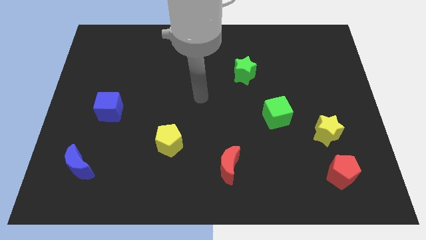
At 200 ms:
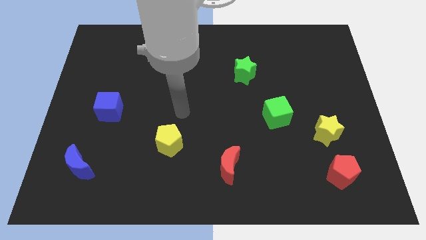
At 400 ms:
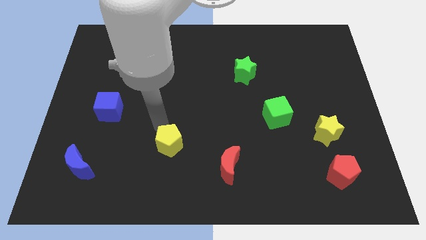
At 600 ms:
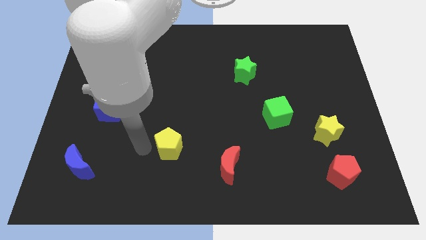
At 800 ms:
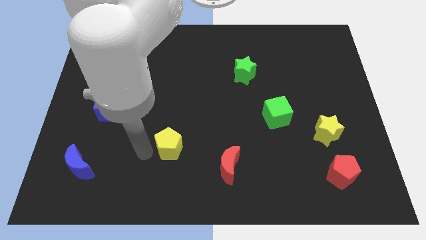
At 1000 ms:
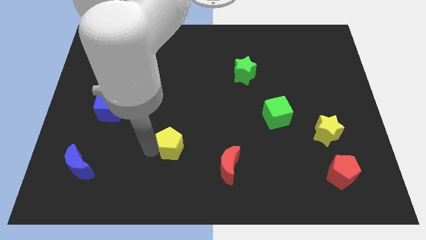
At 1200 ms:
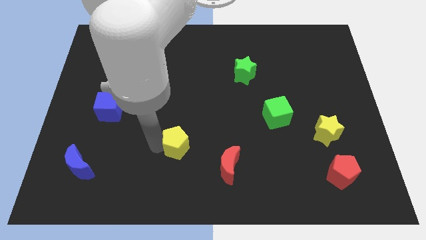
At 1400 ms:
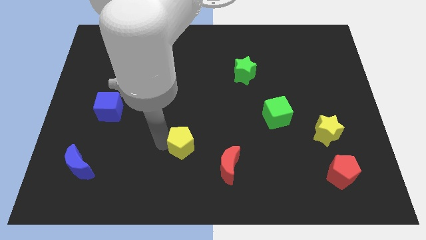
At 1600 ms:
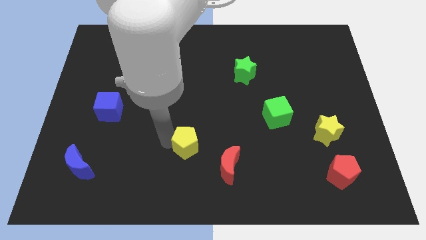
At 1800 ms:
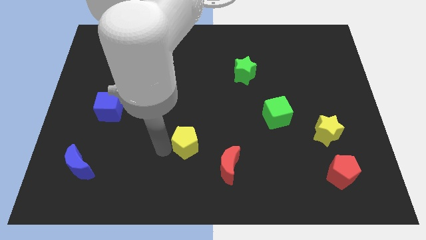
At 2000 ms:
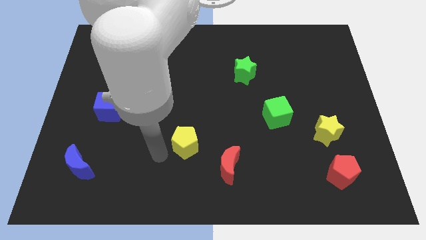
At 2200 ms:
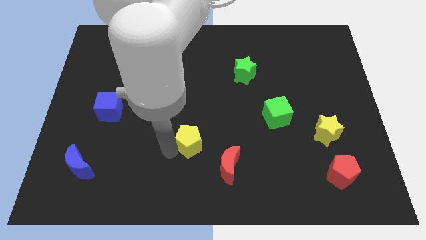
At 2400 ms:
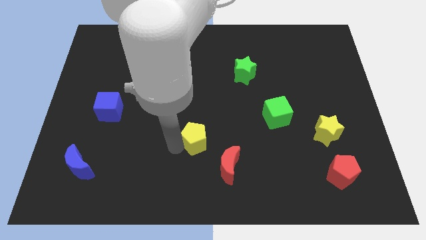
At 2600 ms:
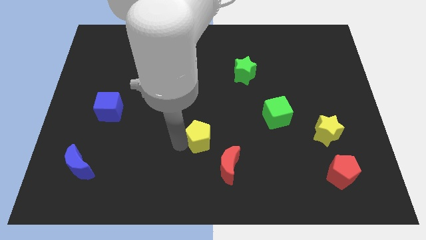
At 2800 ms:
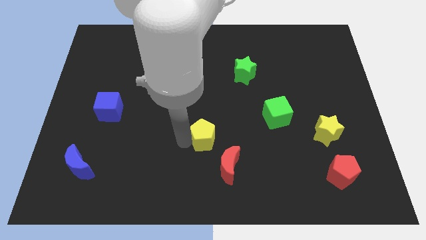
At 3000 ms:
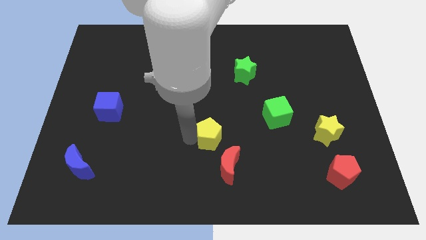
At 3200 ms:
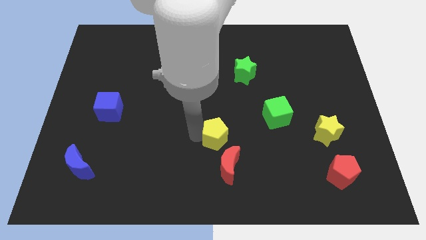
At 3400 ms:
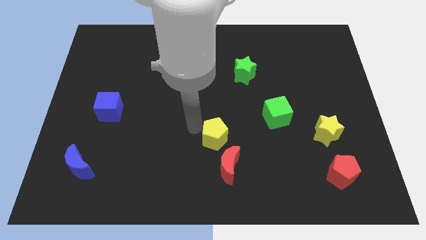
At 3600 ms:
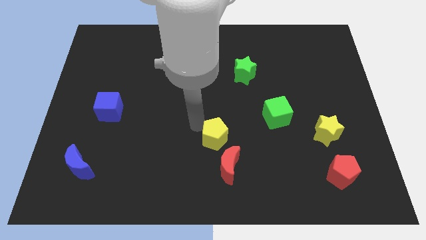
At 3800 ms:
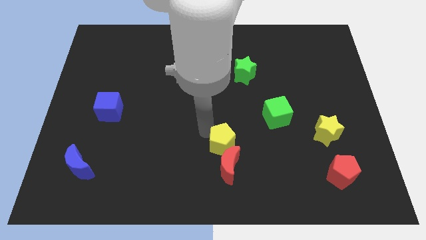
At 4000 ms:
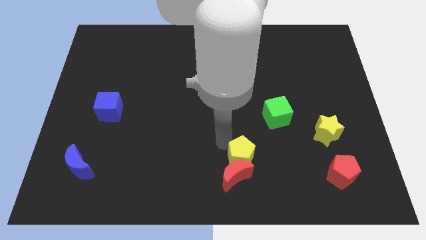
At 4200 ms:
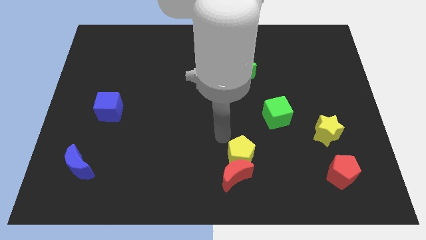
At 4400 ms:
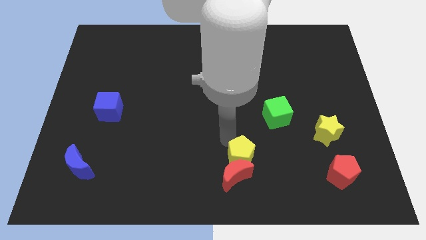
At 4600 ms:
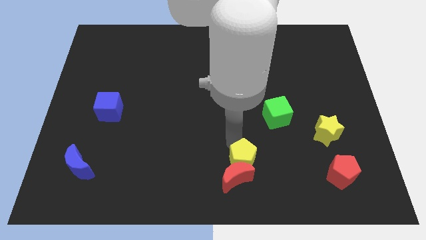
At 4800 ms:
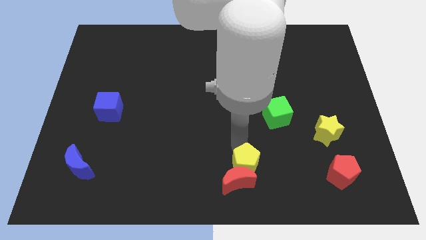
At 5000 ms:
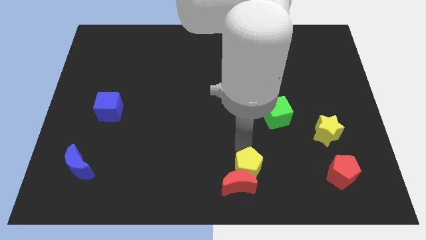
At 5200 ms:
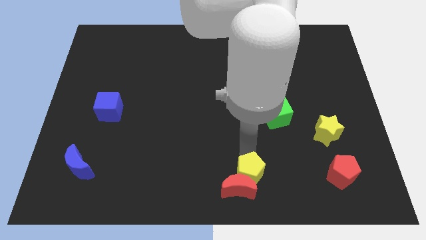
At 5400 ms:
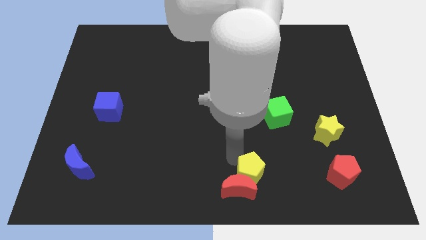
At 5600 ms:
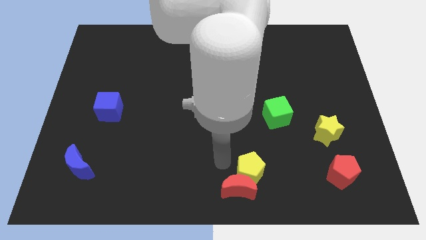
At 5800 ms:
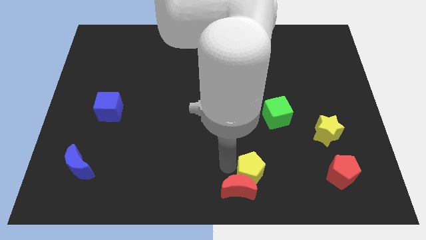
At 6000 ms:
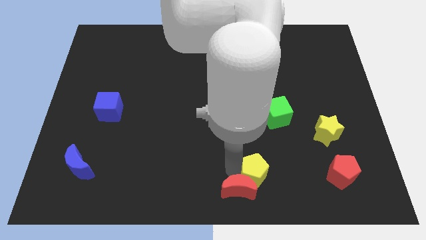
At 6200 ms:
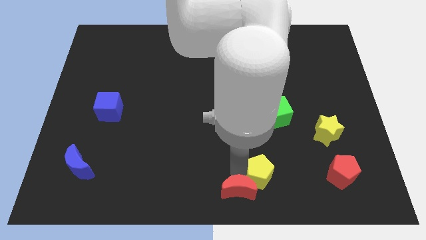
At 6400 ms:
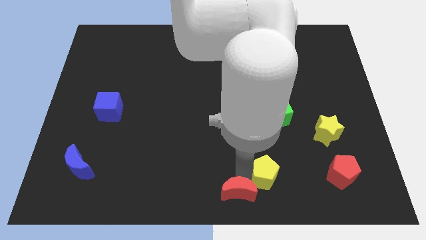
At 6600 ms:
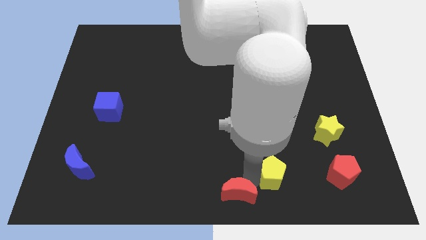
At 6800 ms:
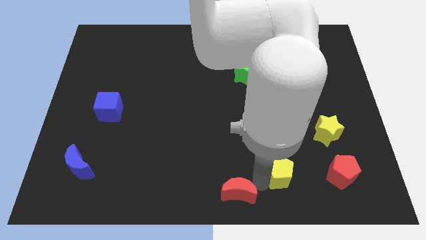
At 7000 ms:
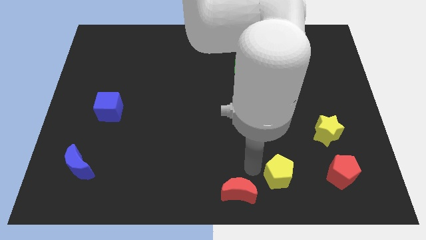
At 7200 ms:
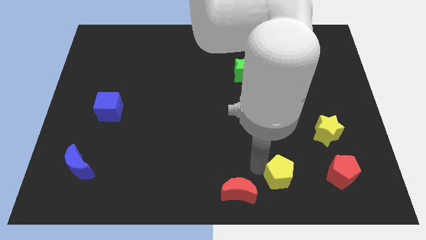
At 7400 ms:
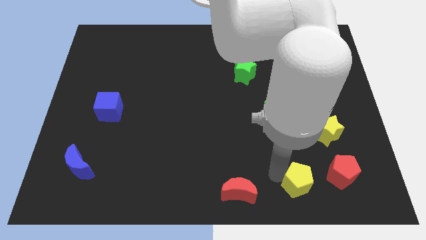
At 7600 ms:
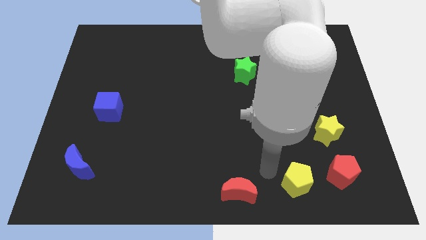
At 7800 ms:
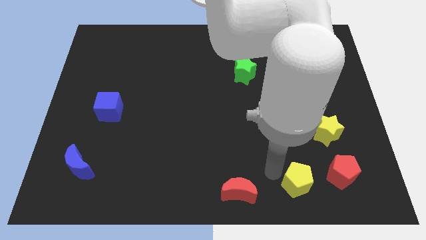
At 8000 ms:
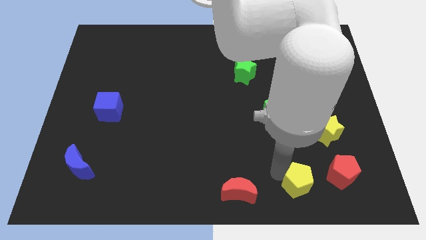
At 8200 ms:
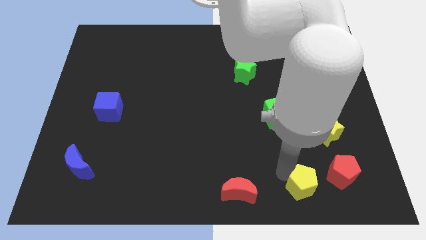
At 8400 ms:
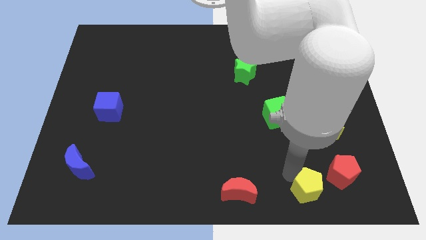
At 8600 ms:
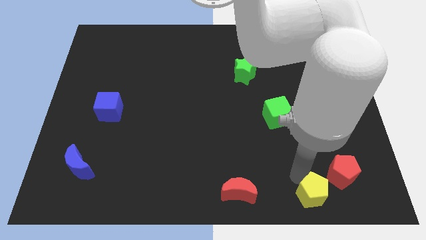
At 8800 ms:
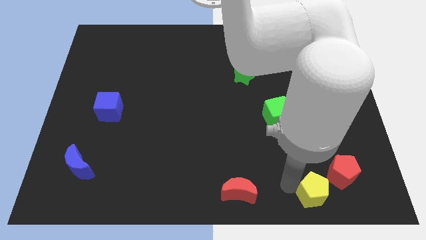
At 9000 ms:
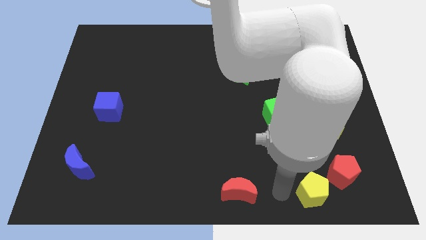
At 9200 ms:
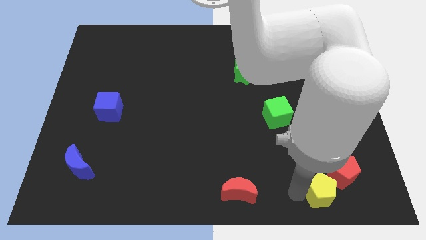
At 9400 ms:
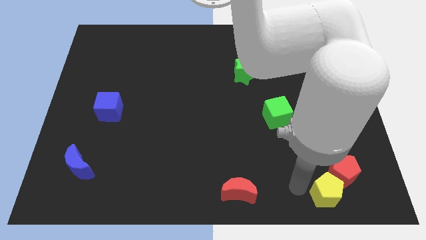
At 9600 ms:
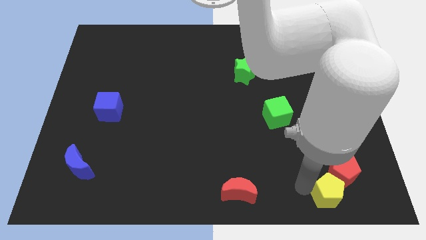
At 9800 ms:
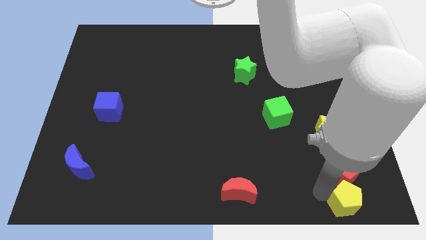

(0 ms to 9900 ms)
slide the yellow pentagon to the lower right corner

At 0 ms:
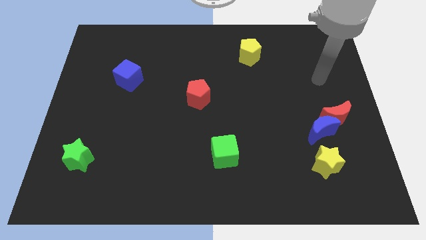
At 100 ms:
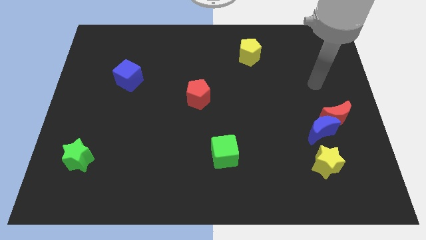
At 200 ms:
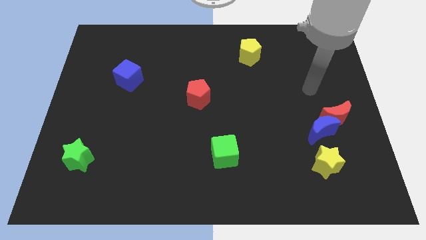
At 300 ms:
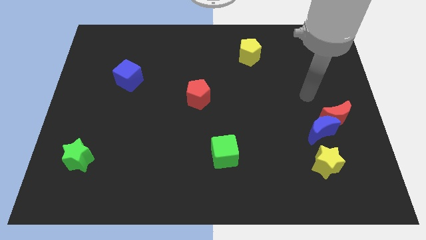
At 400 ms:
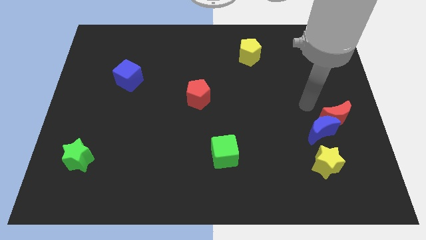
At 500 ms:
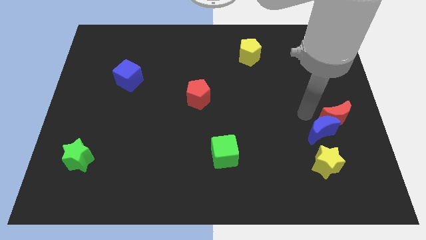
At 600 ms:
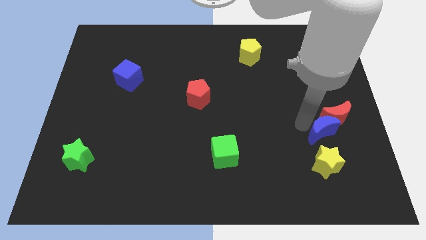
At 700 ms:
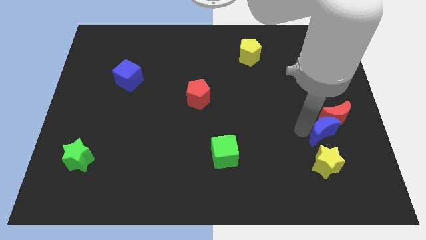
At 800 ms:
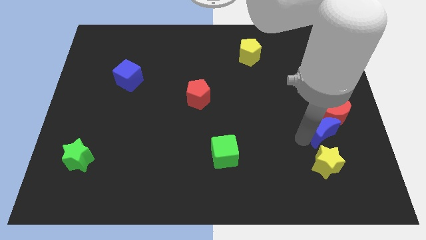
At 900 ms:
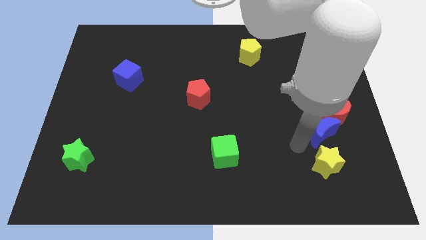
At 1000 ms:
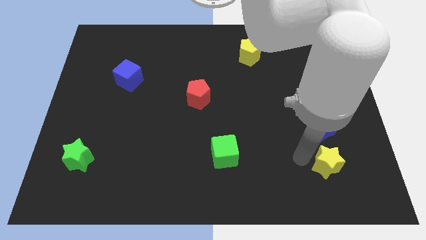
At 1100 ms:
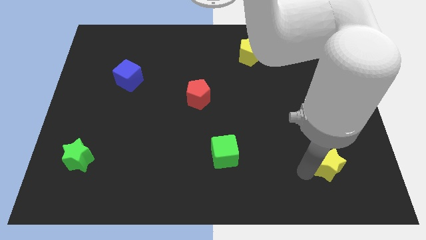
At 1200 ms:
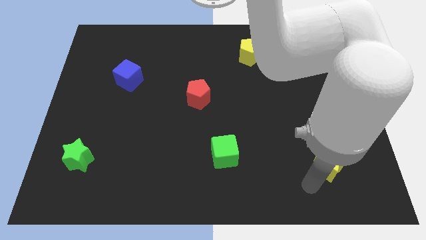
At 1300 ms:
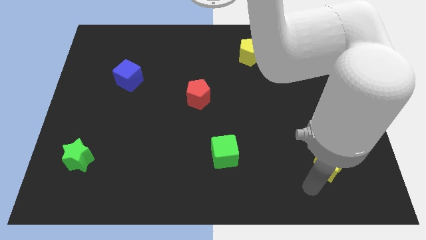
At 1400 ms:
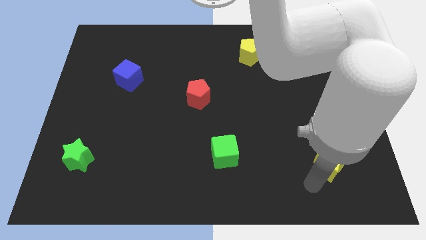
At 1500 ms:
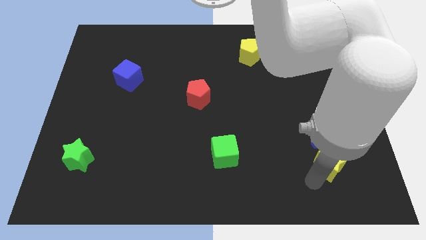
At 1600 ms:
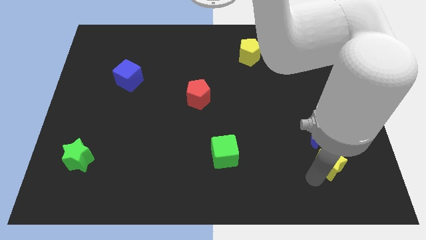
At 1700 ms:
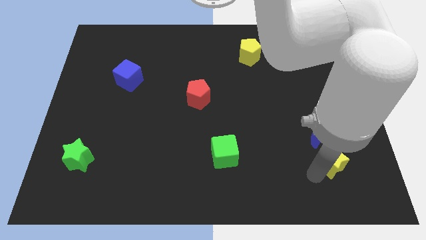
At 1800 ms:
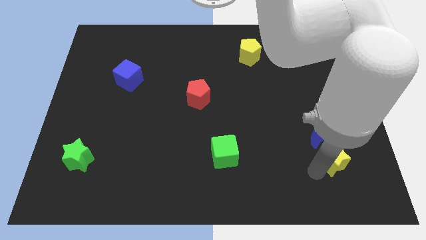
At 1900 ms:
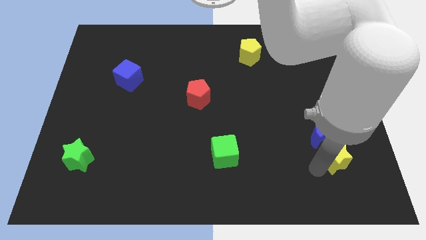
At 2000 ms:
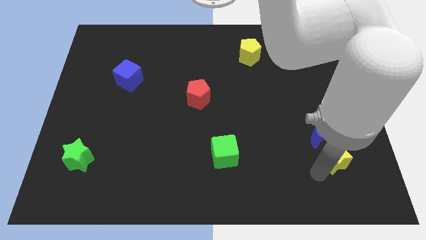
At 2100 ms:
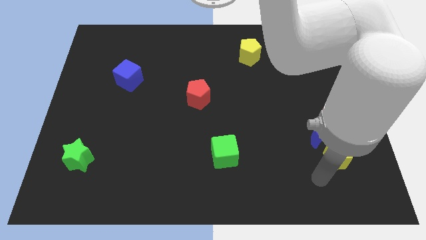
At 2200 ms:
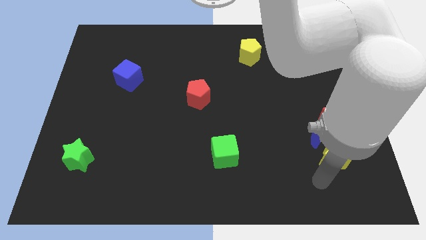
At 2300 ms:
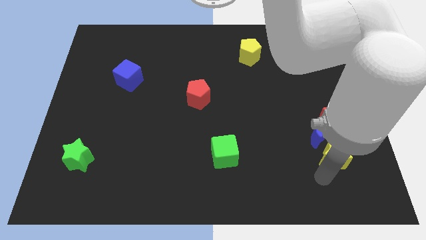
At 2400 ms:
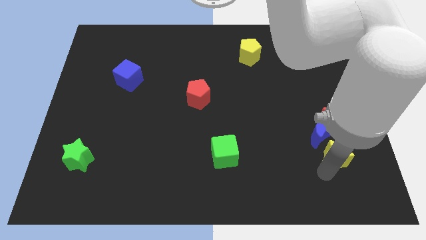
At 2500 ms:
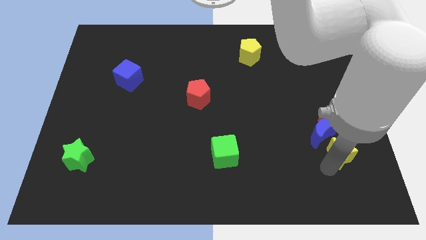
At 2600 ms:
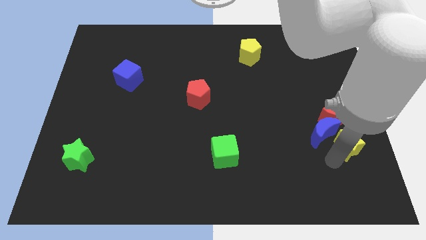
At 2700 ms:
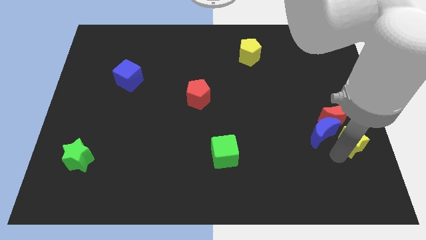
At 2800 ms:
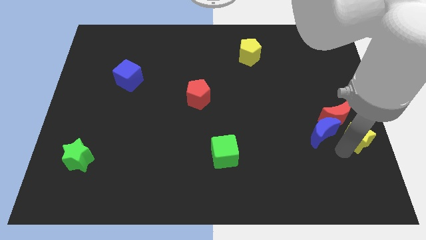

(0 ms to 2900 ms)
put the yellow star to the right side of the board
